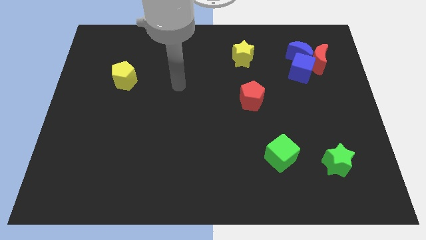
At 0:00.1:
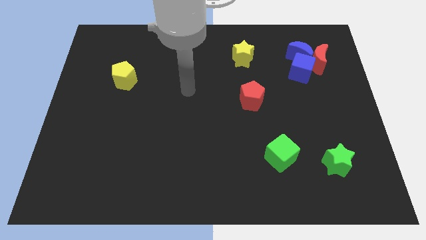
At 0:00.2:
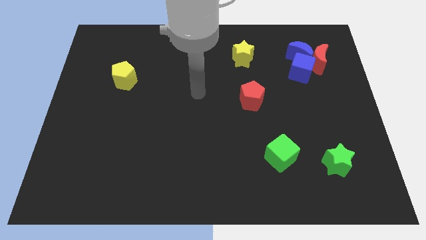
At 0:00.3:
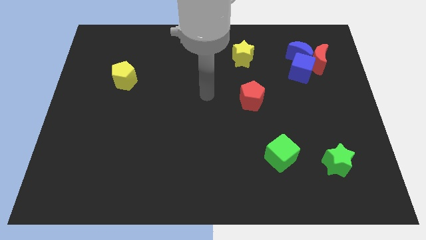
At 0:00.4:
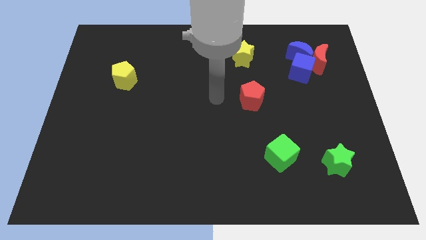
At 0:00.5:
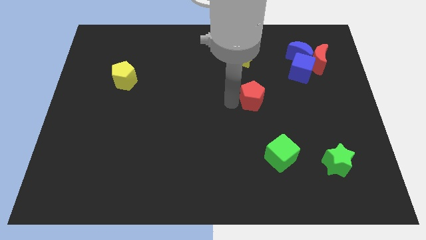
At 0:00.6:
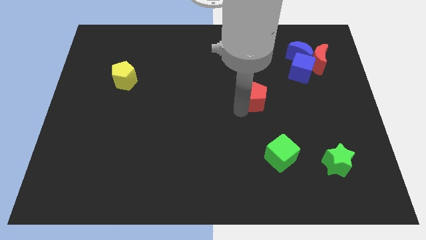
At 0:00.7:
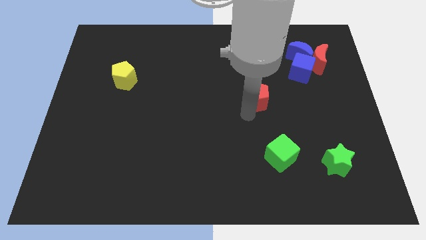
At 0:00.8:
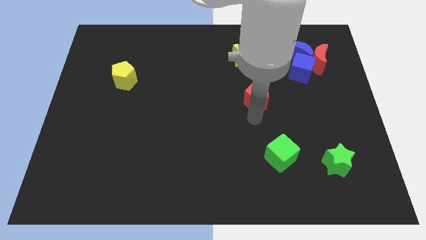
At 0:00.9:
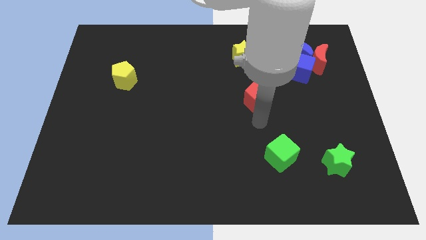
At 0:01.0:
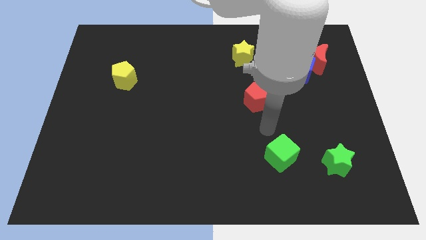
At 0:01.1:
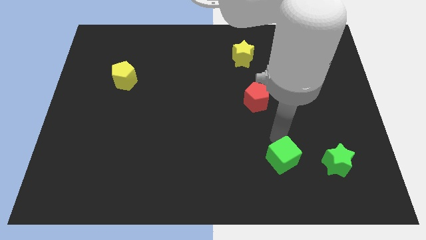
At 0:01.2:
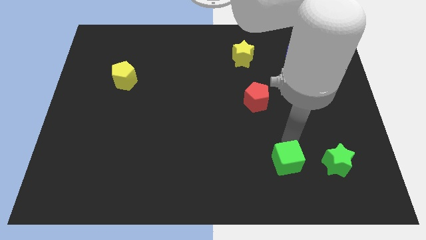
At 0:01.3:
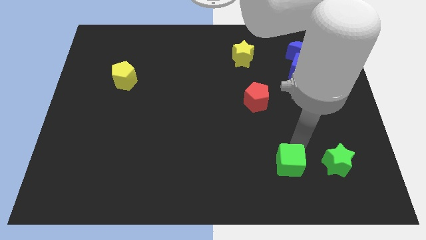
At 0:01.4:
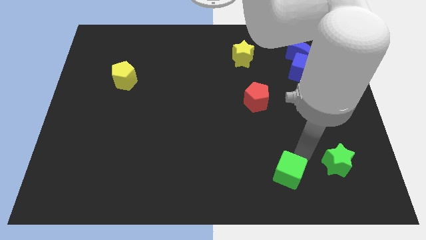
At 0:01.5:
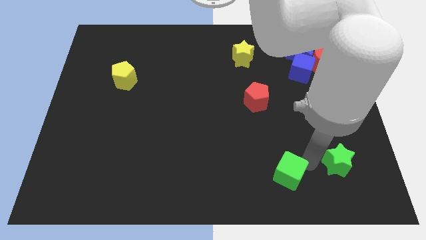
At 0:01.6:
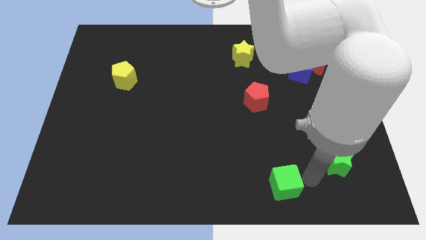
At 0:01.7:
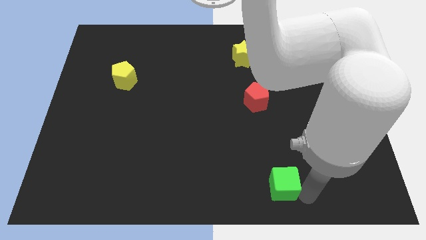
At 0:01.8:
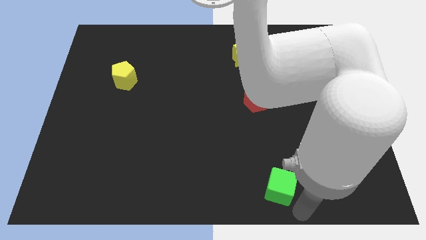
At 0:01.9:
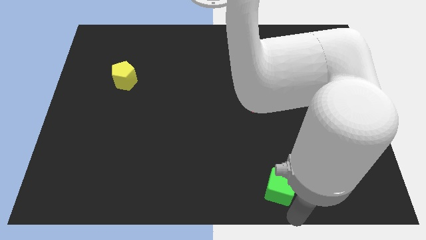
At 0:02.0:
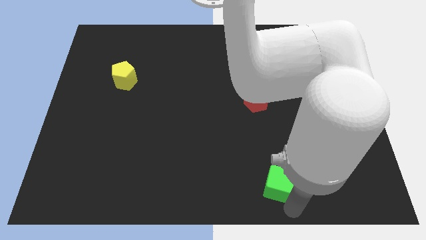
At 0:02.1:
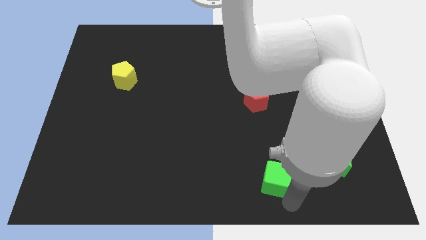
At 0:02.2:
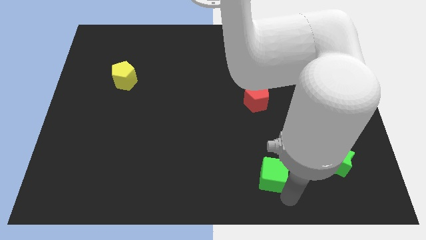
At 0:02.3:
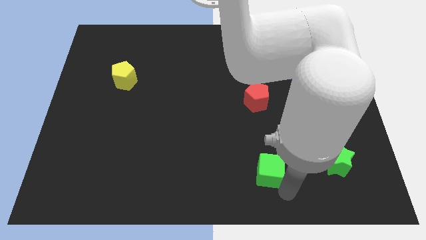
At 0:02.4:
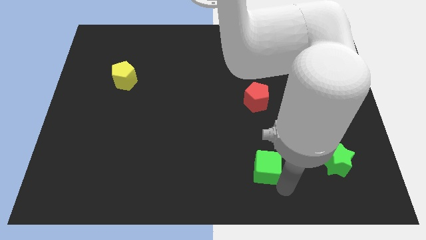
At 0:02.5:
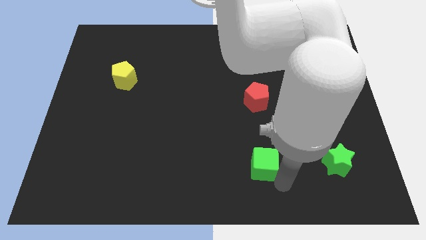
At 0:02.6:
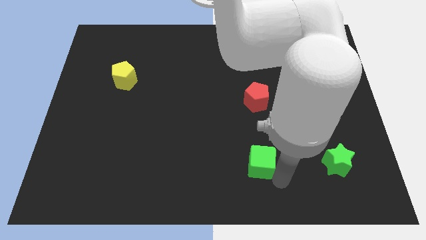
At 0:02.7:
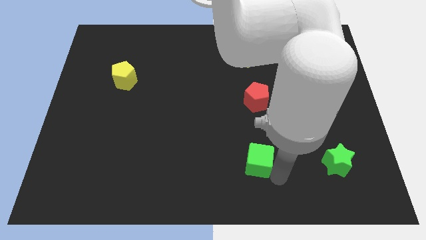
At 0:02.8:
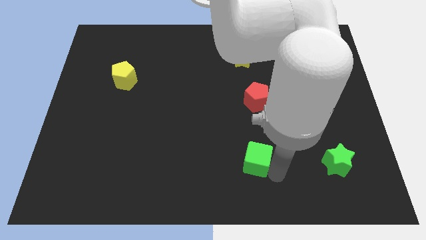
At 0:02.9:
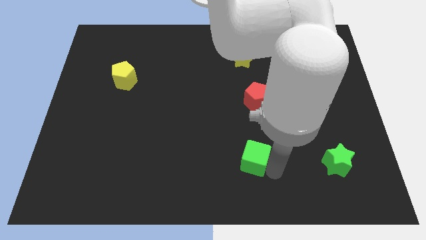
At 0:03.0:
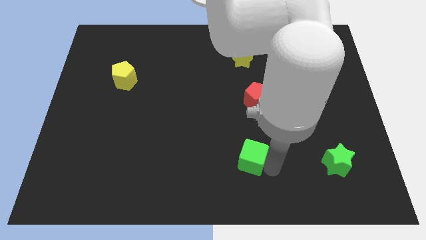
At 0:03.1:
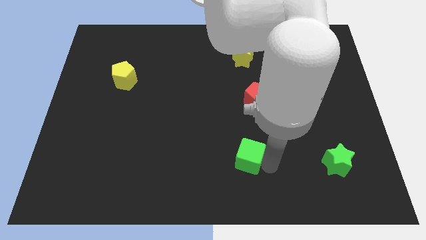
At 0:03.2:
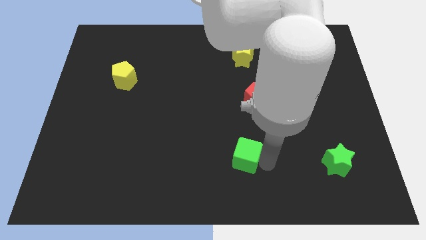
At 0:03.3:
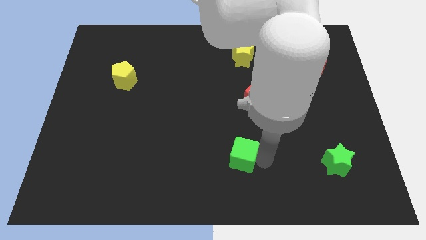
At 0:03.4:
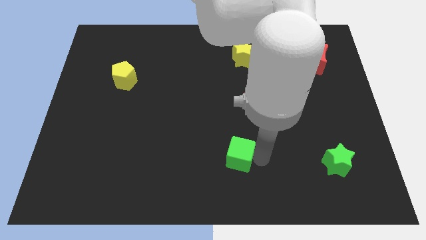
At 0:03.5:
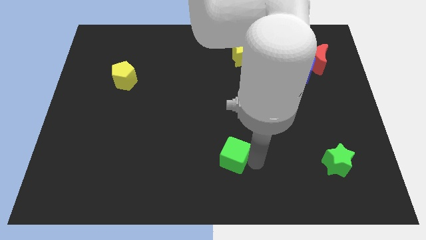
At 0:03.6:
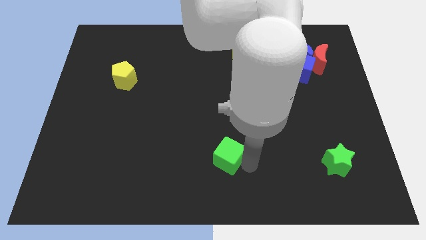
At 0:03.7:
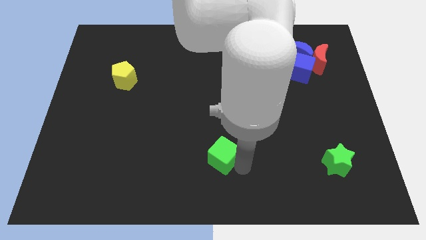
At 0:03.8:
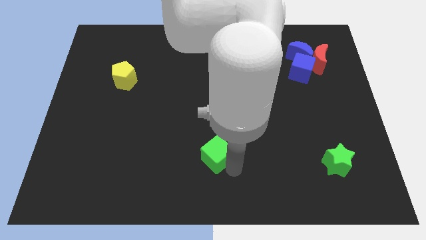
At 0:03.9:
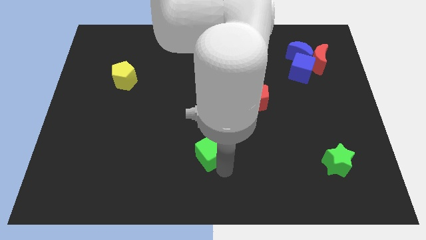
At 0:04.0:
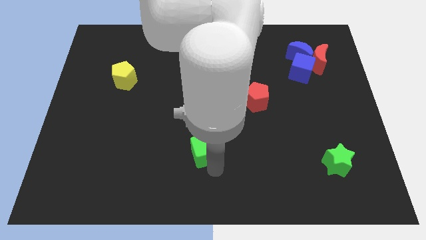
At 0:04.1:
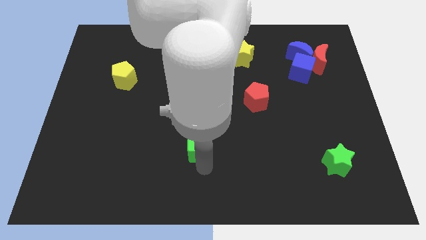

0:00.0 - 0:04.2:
push the green cube up and left diagonally slightly

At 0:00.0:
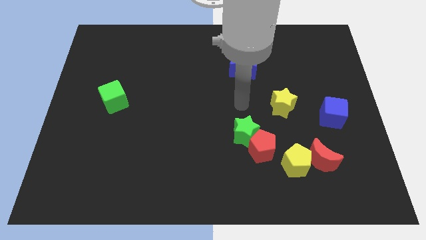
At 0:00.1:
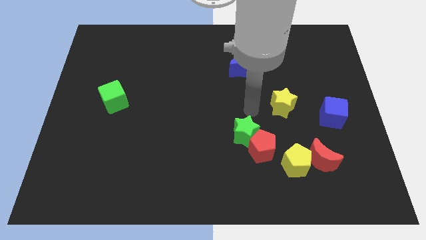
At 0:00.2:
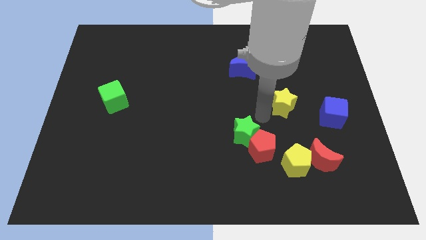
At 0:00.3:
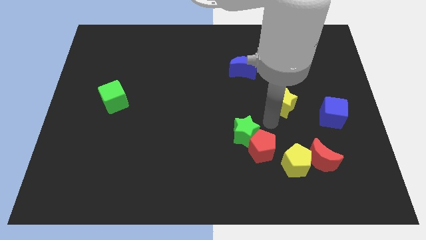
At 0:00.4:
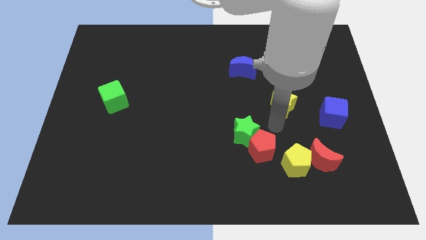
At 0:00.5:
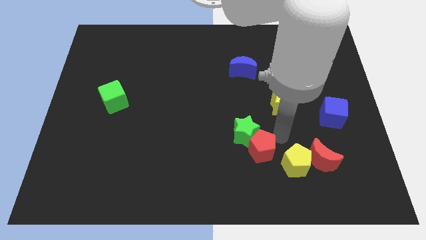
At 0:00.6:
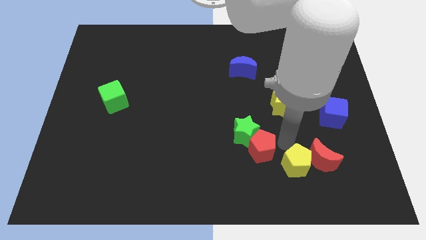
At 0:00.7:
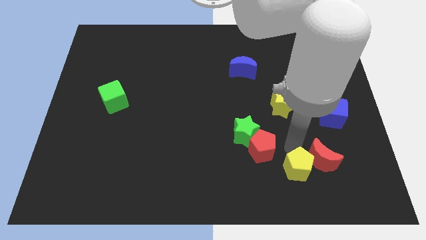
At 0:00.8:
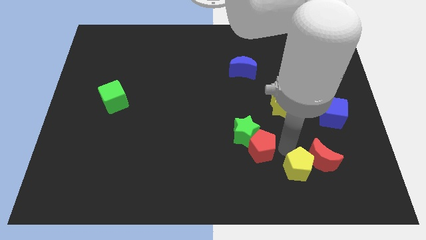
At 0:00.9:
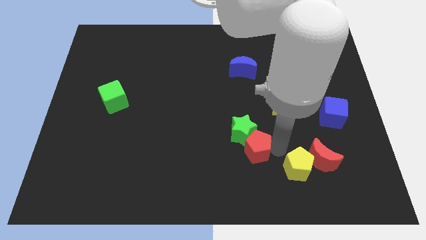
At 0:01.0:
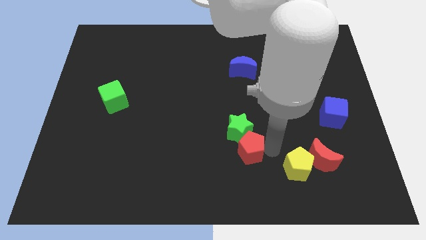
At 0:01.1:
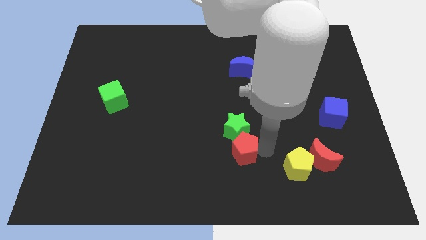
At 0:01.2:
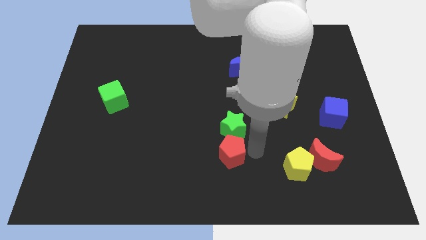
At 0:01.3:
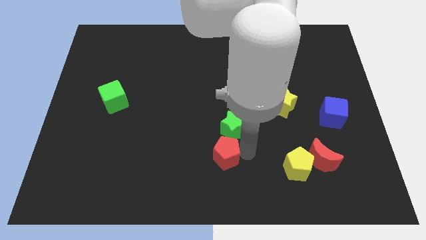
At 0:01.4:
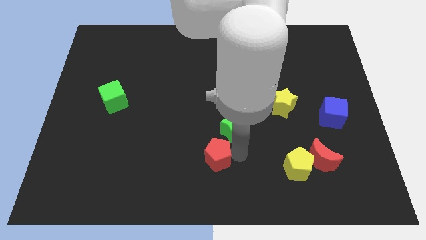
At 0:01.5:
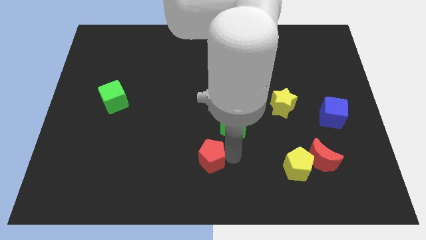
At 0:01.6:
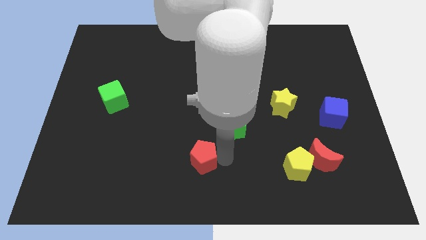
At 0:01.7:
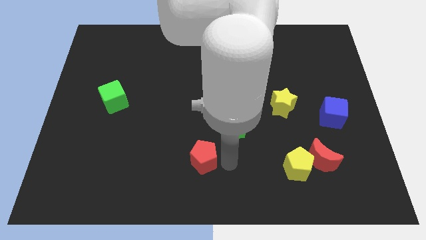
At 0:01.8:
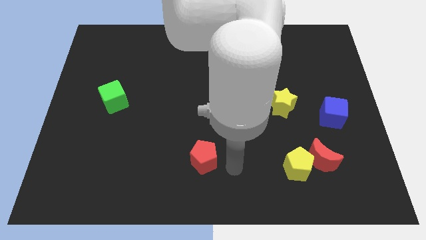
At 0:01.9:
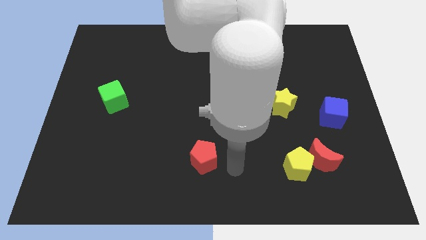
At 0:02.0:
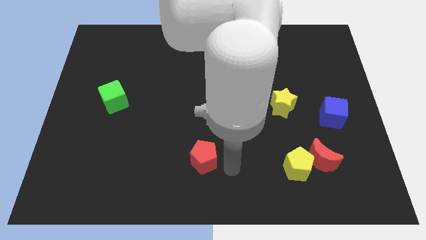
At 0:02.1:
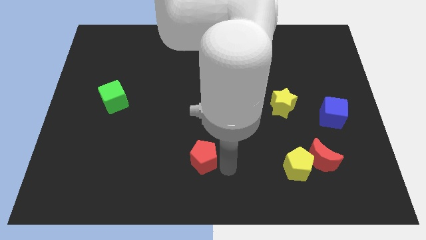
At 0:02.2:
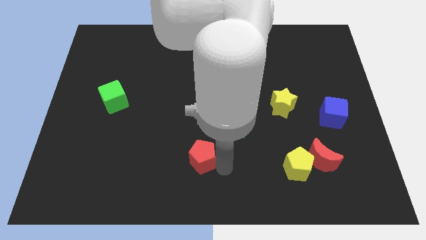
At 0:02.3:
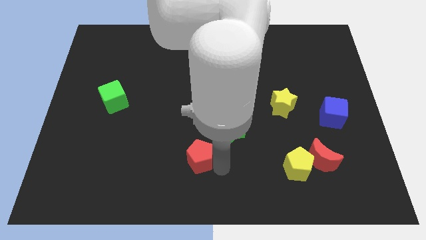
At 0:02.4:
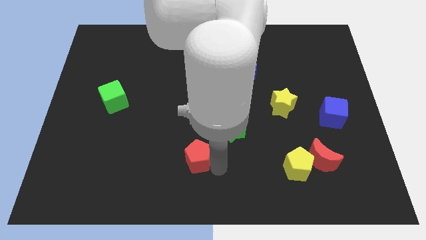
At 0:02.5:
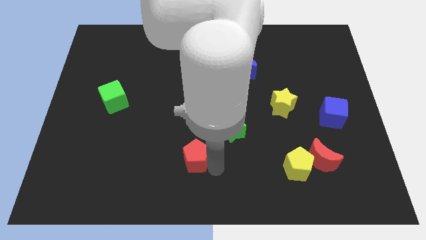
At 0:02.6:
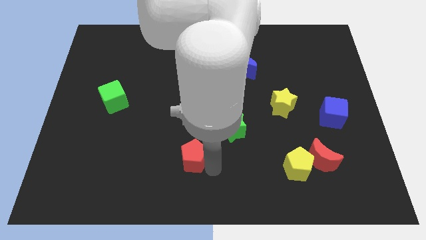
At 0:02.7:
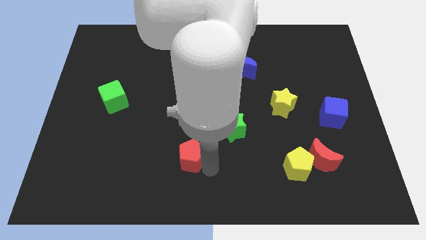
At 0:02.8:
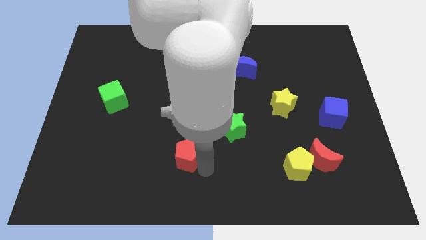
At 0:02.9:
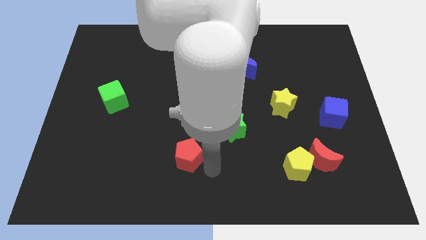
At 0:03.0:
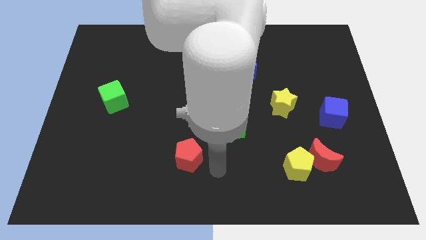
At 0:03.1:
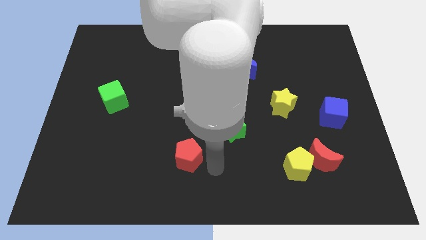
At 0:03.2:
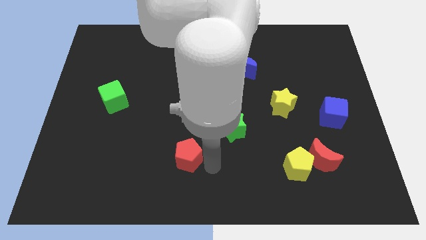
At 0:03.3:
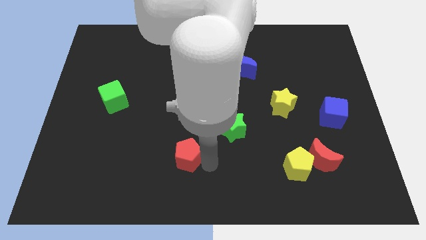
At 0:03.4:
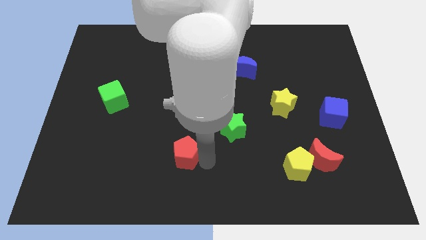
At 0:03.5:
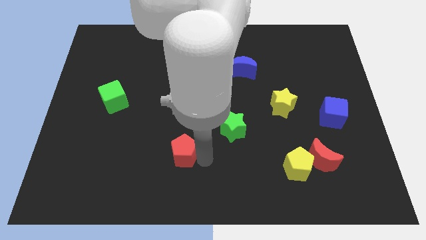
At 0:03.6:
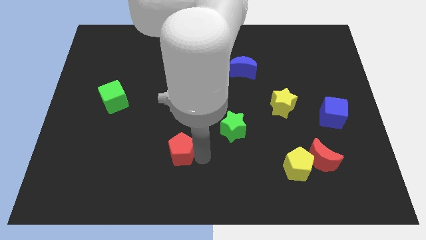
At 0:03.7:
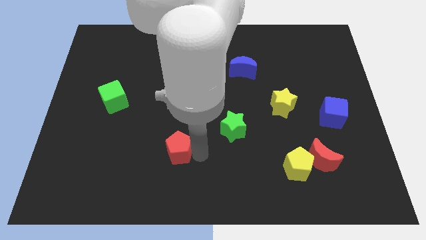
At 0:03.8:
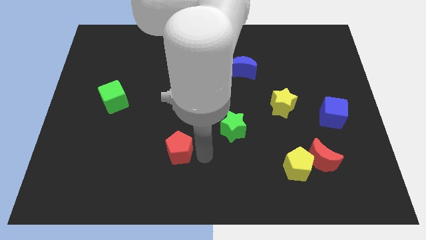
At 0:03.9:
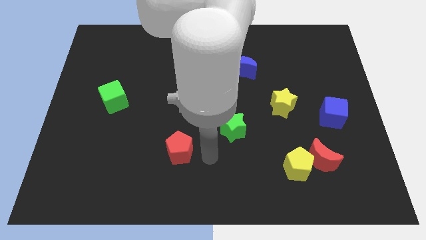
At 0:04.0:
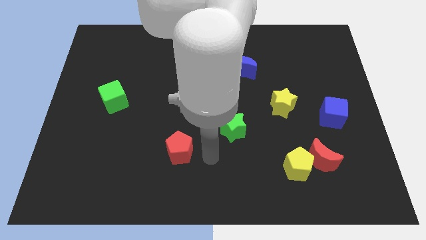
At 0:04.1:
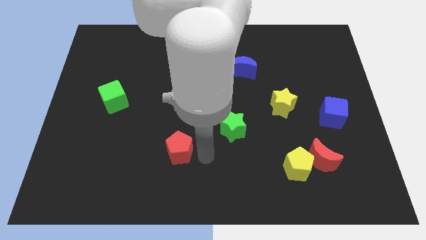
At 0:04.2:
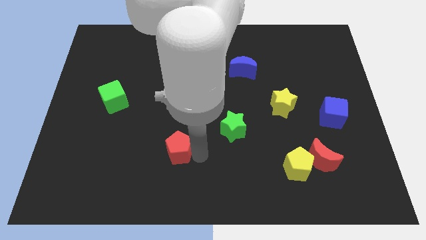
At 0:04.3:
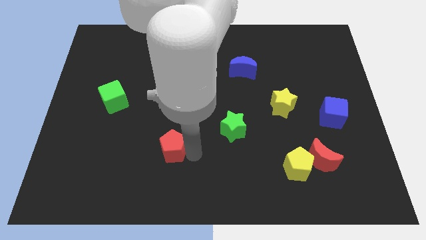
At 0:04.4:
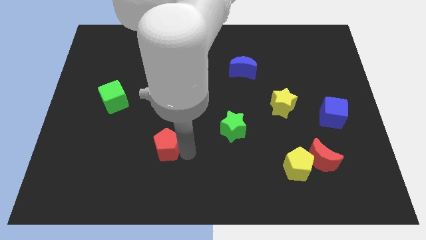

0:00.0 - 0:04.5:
slide the red pentagon to the left
